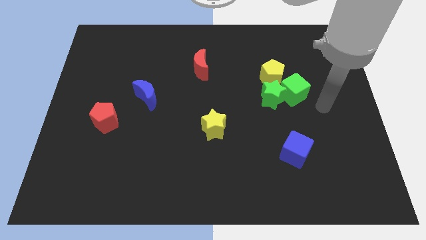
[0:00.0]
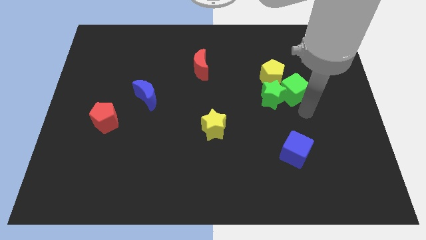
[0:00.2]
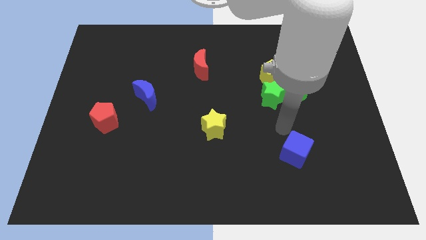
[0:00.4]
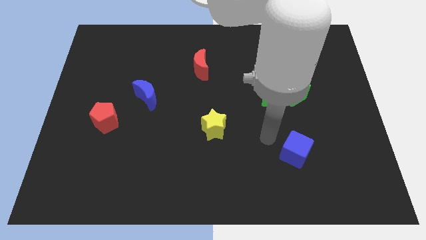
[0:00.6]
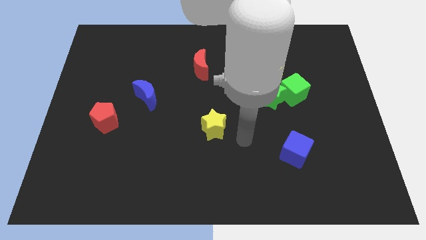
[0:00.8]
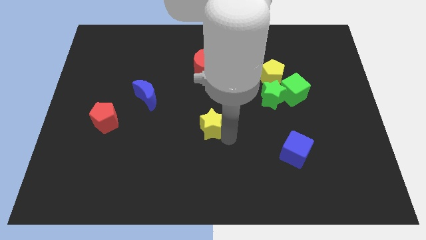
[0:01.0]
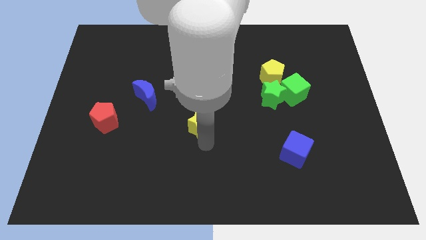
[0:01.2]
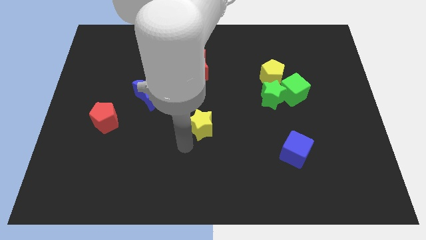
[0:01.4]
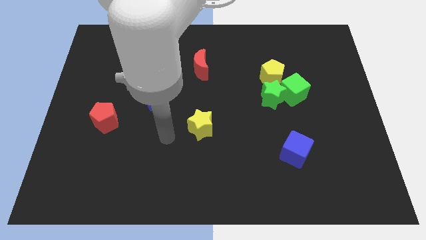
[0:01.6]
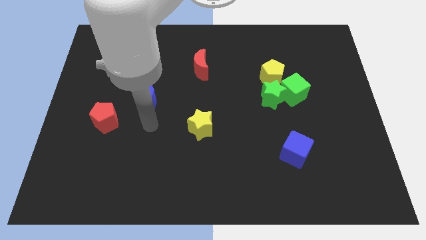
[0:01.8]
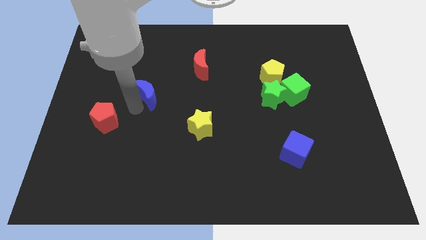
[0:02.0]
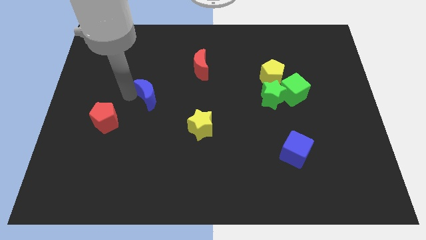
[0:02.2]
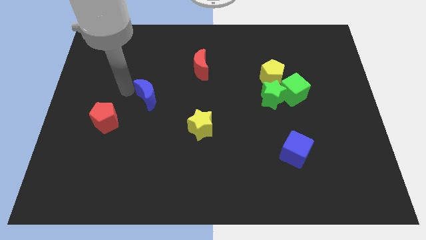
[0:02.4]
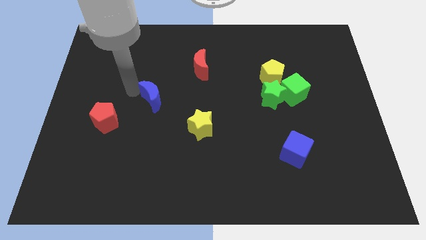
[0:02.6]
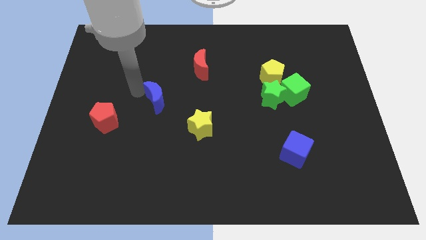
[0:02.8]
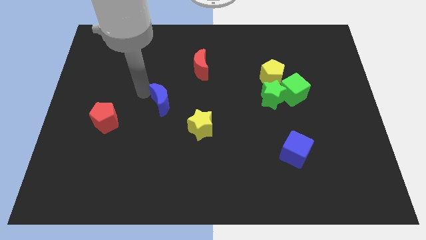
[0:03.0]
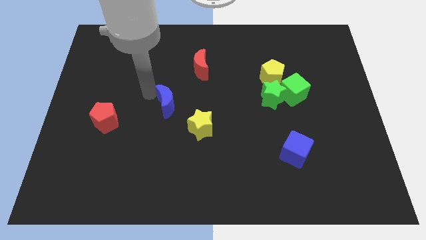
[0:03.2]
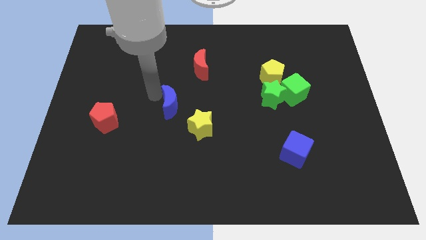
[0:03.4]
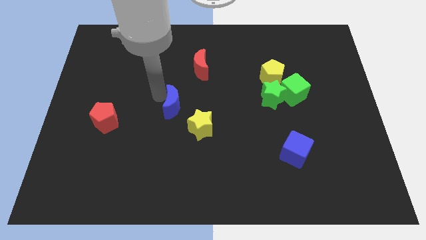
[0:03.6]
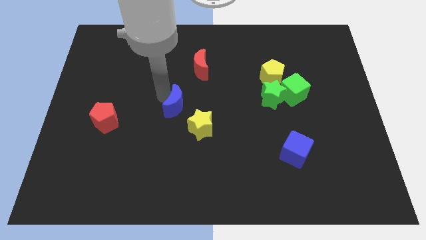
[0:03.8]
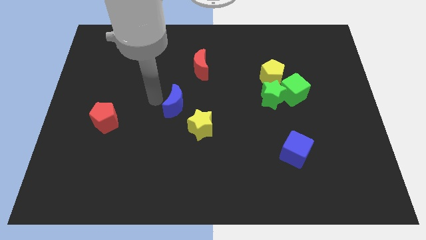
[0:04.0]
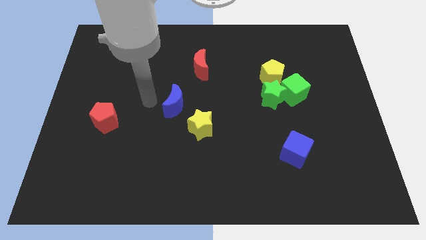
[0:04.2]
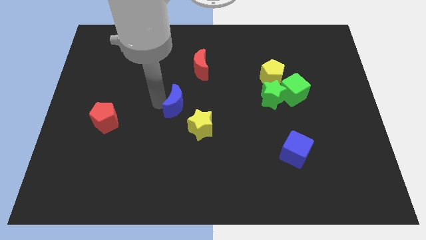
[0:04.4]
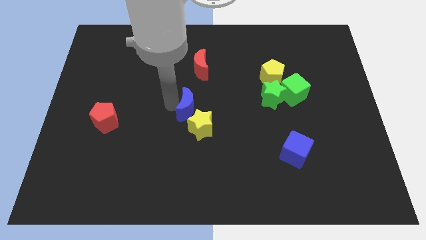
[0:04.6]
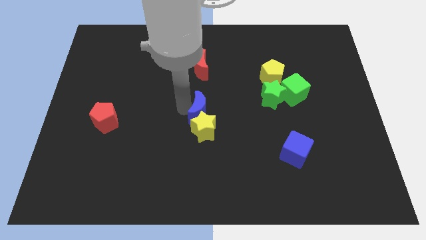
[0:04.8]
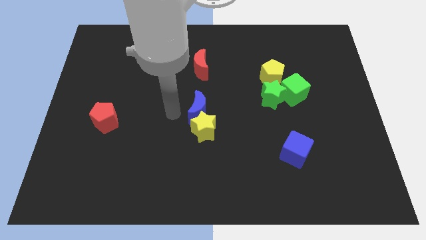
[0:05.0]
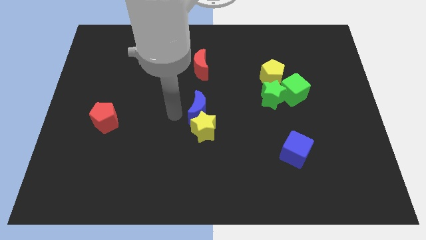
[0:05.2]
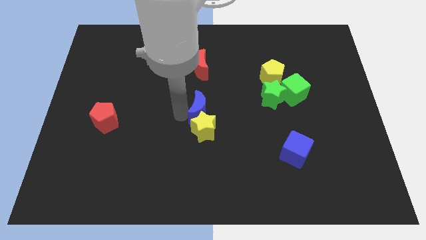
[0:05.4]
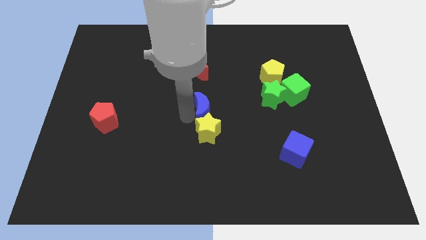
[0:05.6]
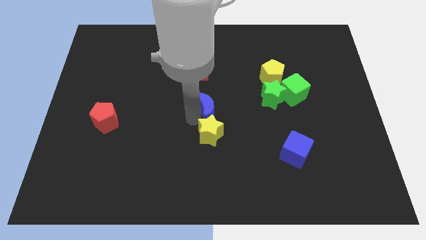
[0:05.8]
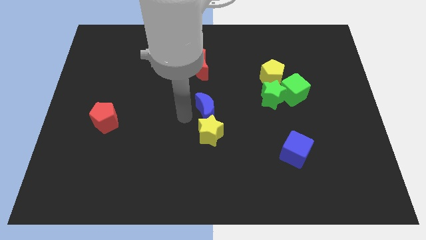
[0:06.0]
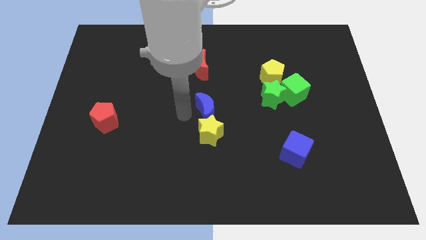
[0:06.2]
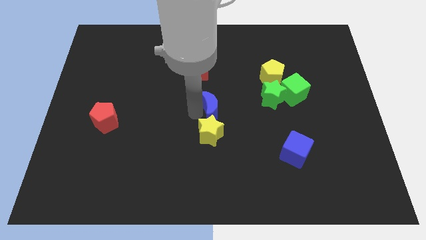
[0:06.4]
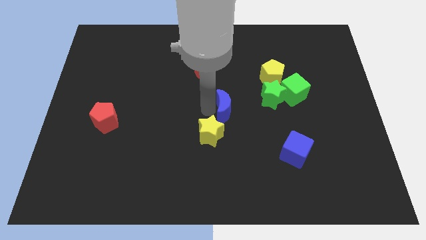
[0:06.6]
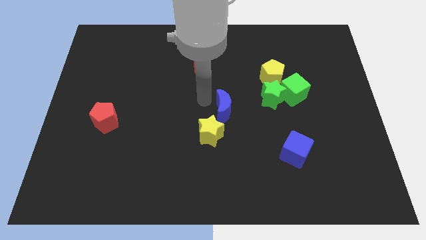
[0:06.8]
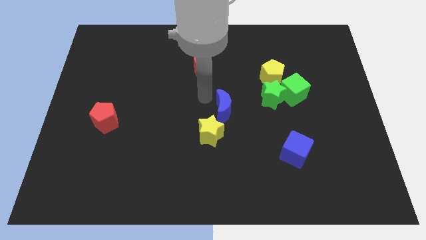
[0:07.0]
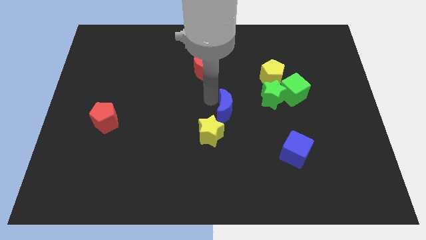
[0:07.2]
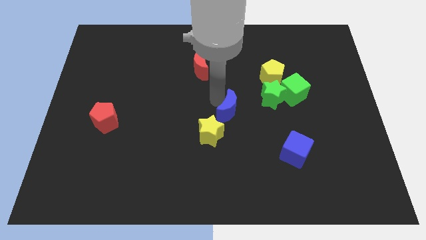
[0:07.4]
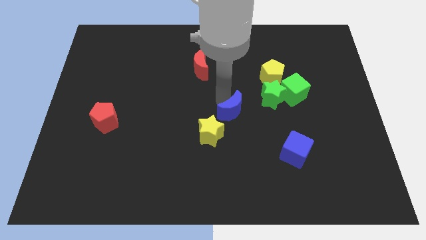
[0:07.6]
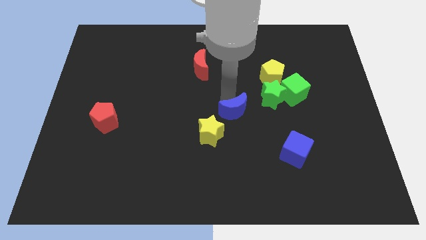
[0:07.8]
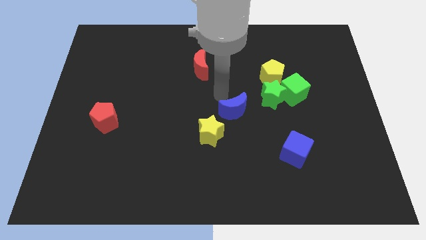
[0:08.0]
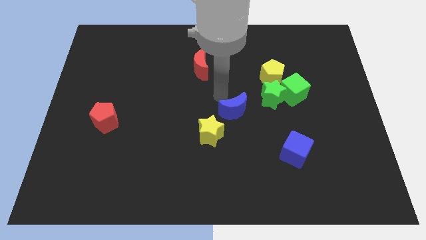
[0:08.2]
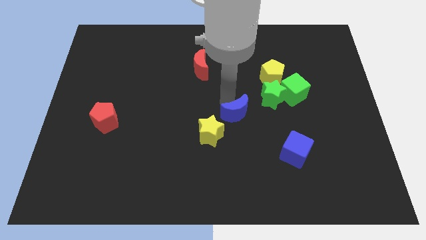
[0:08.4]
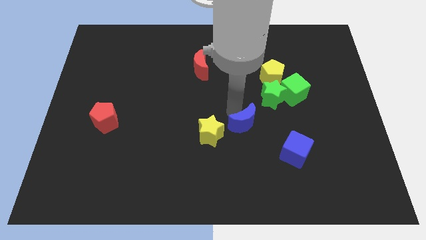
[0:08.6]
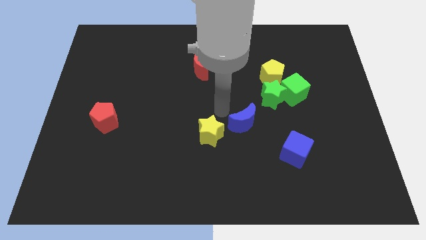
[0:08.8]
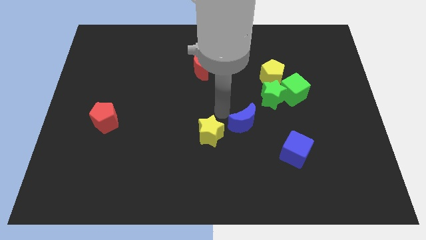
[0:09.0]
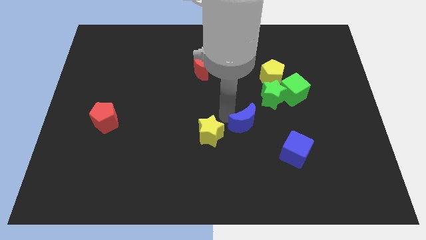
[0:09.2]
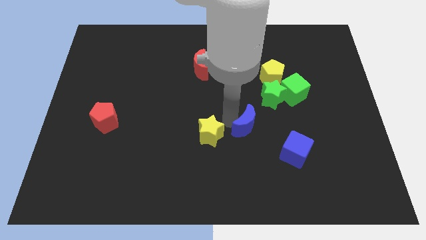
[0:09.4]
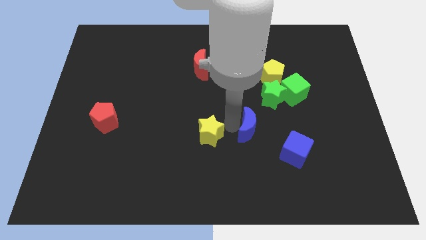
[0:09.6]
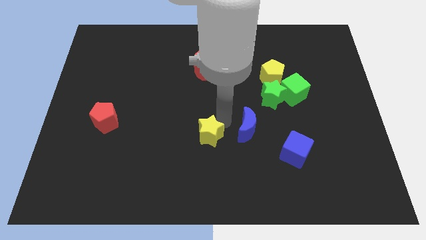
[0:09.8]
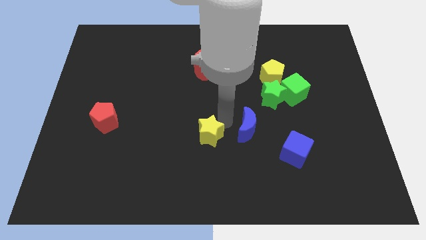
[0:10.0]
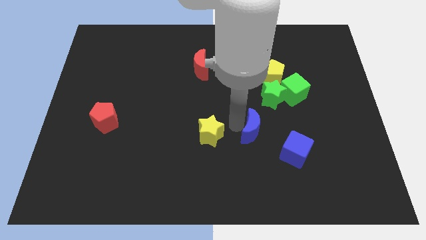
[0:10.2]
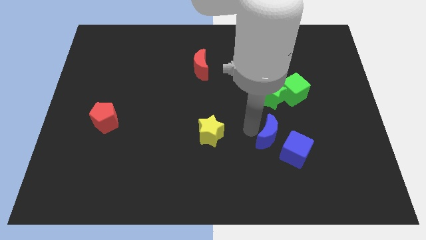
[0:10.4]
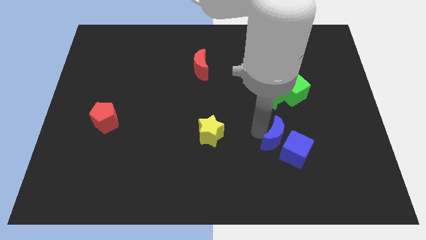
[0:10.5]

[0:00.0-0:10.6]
move the blue moon close to the blue cube

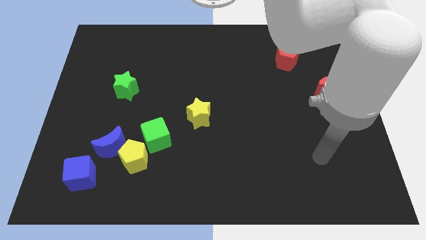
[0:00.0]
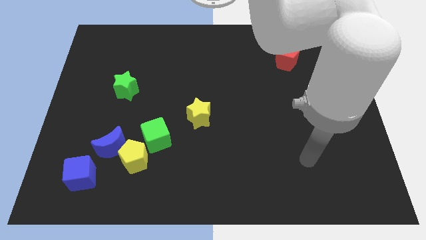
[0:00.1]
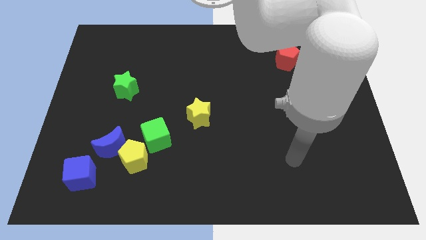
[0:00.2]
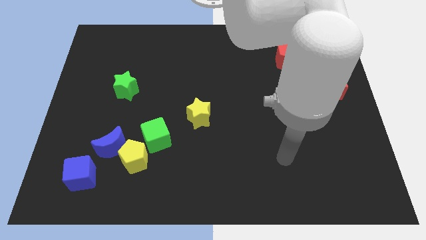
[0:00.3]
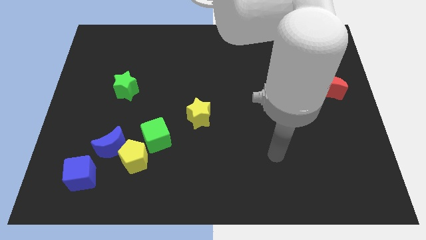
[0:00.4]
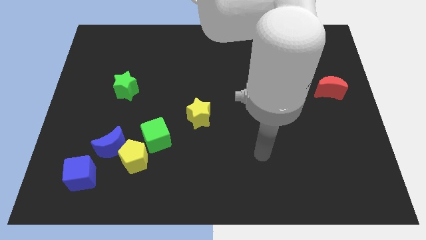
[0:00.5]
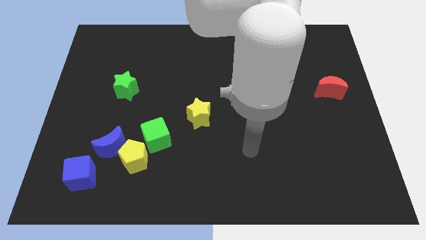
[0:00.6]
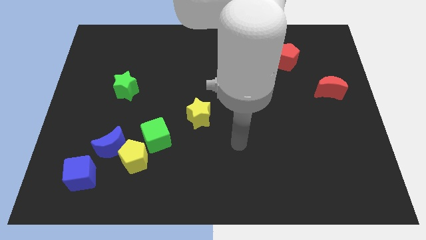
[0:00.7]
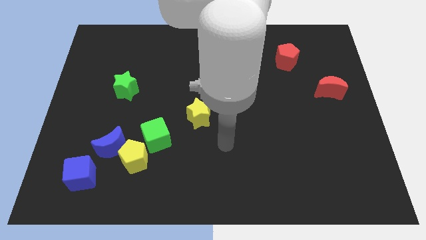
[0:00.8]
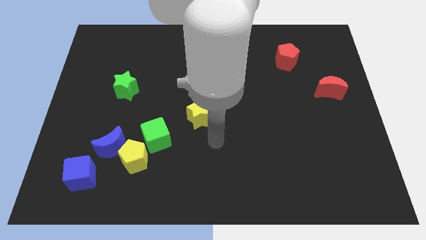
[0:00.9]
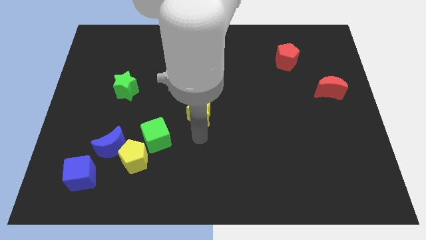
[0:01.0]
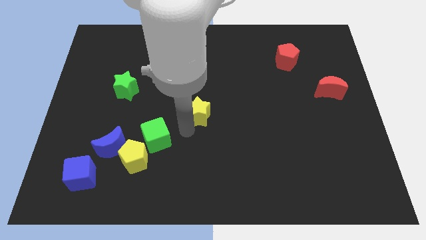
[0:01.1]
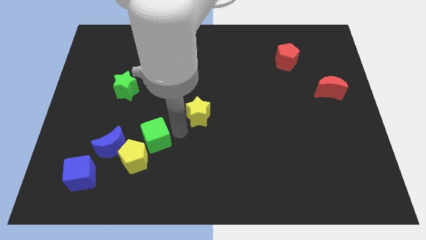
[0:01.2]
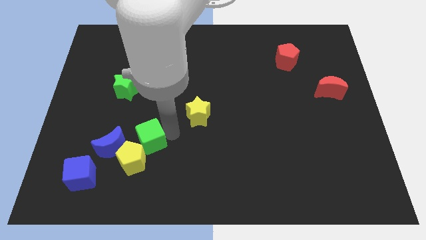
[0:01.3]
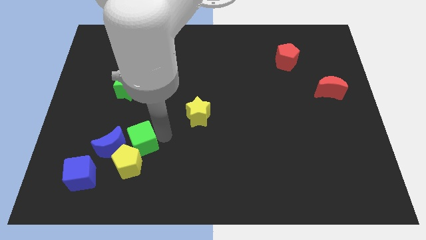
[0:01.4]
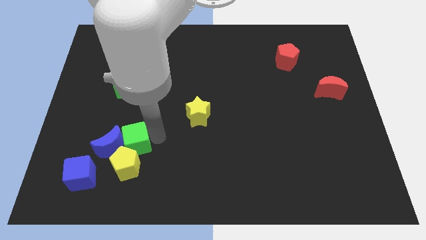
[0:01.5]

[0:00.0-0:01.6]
put the green cube towards the blue moon
